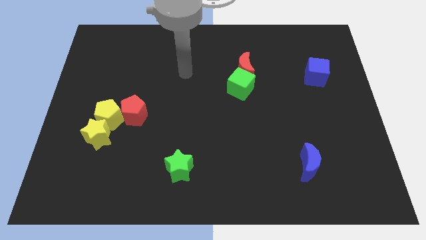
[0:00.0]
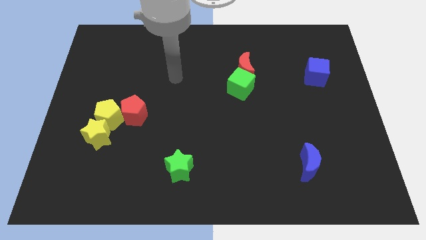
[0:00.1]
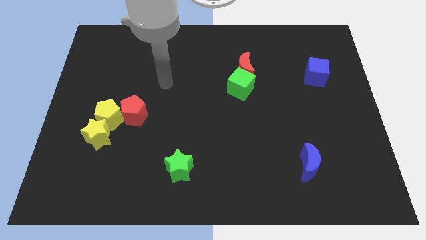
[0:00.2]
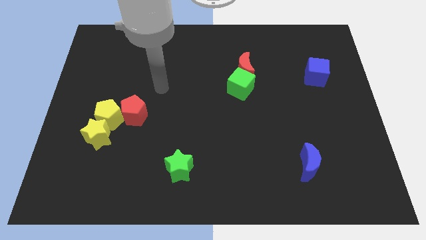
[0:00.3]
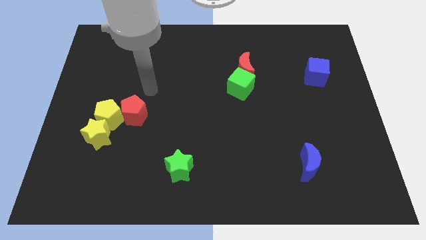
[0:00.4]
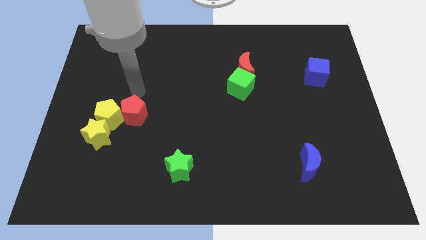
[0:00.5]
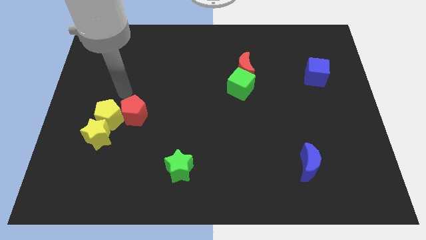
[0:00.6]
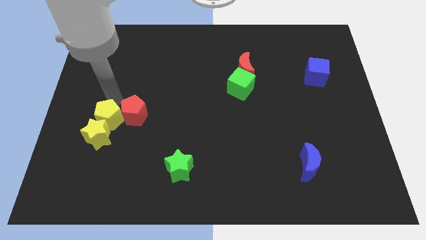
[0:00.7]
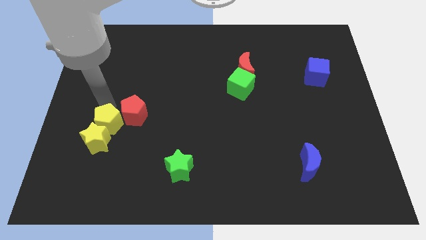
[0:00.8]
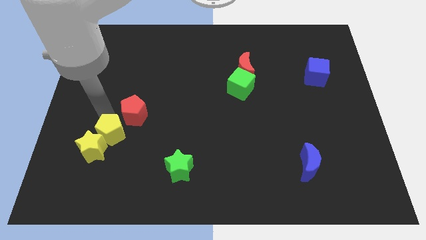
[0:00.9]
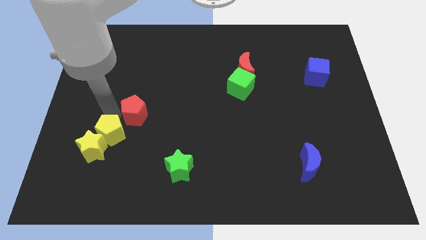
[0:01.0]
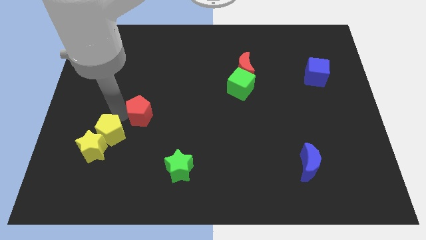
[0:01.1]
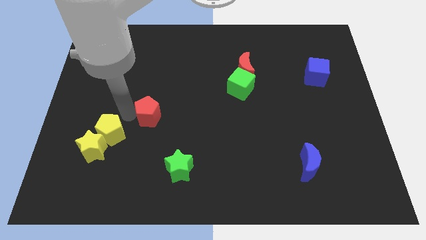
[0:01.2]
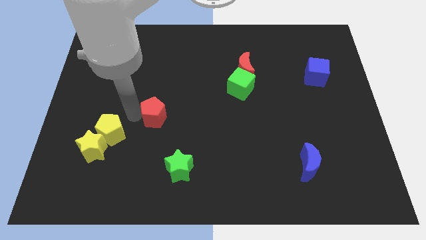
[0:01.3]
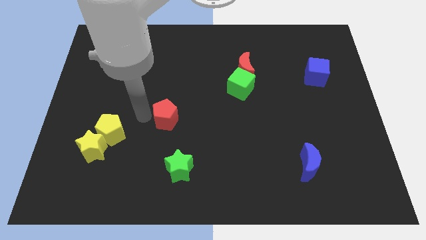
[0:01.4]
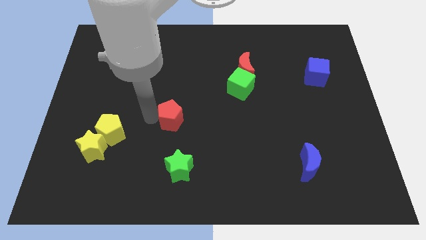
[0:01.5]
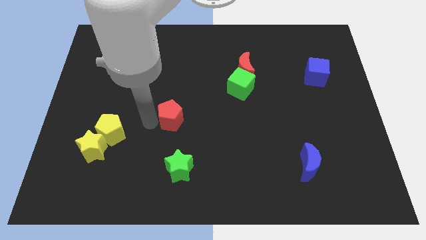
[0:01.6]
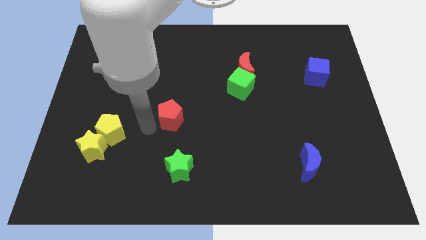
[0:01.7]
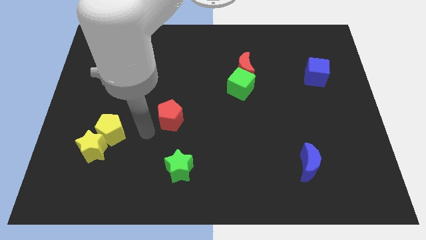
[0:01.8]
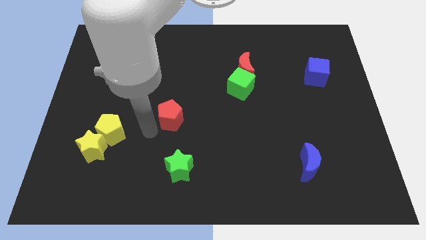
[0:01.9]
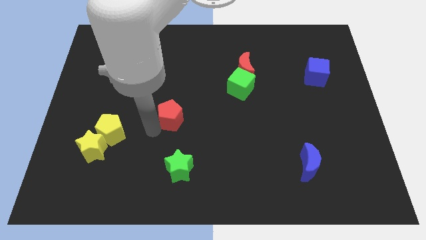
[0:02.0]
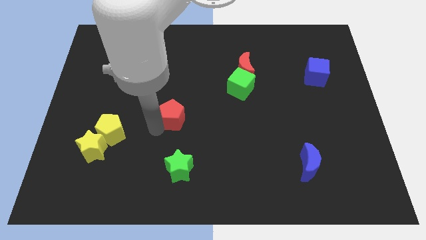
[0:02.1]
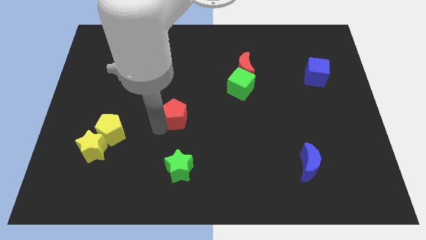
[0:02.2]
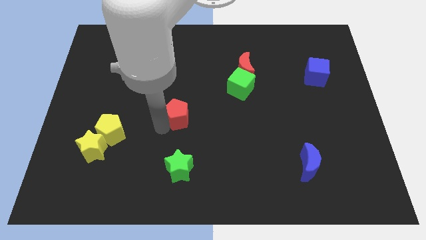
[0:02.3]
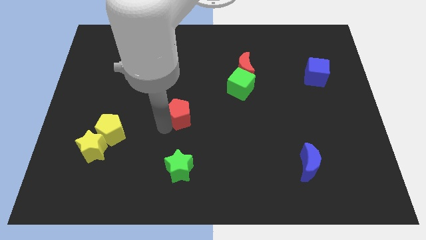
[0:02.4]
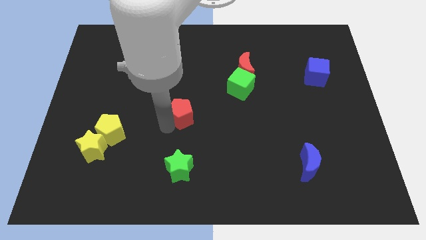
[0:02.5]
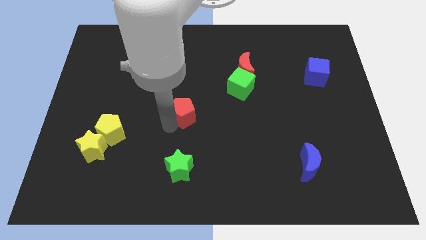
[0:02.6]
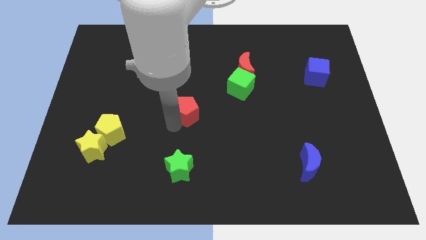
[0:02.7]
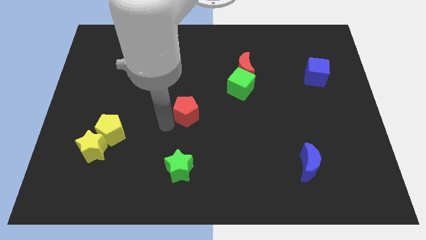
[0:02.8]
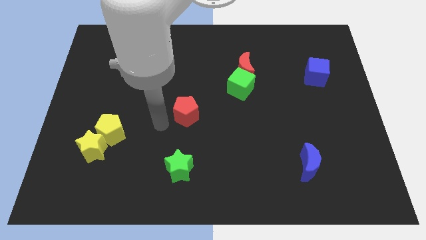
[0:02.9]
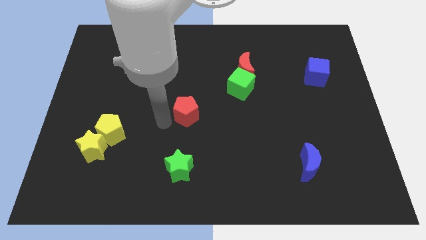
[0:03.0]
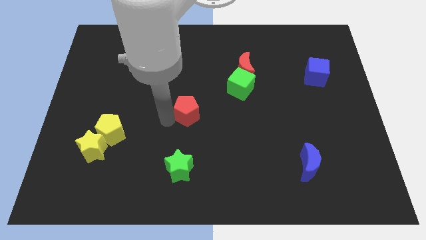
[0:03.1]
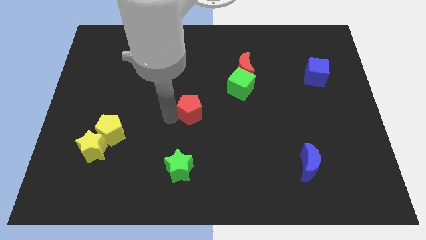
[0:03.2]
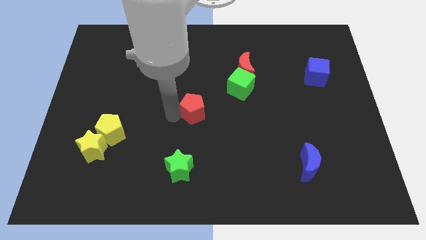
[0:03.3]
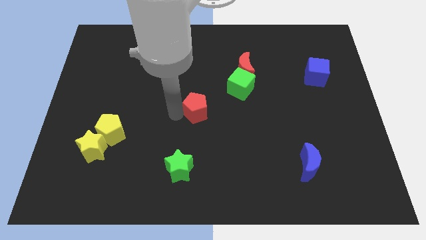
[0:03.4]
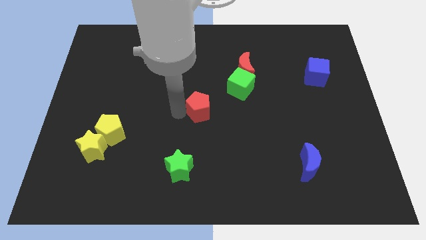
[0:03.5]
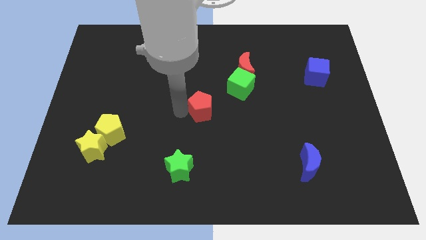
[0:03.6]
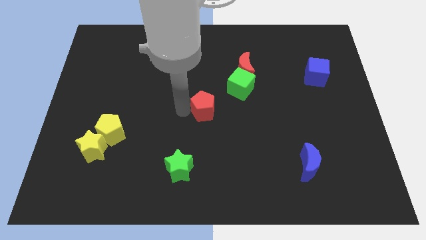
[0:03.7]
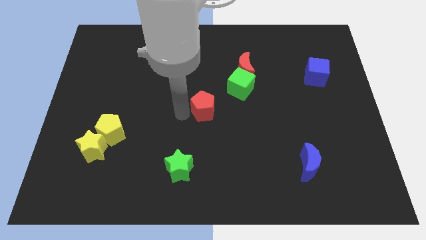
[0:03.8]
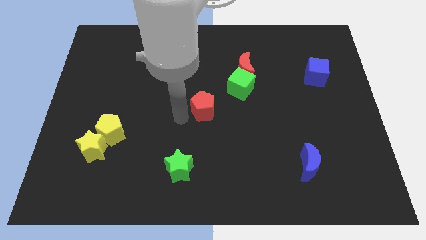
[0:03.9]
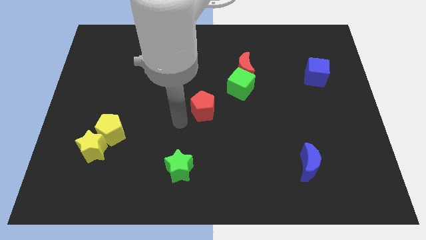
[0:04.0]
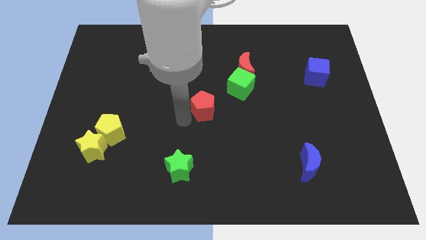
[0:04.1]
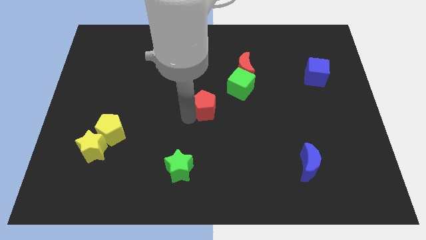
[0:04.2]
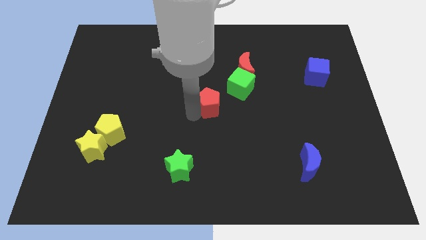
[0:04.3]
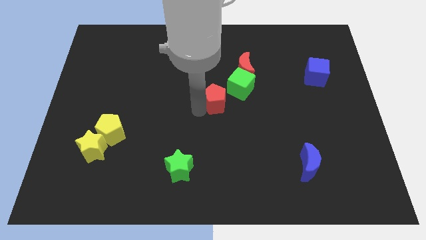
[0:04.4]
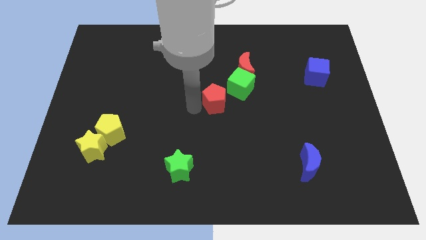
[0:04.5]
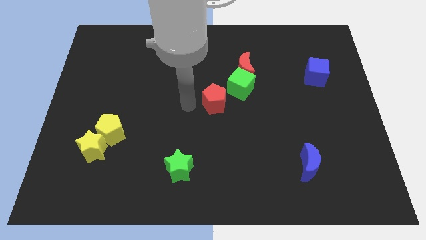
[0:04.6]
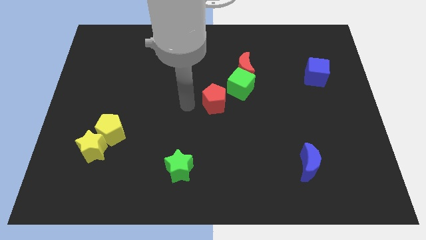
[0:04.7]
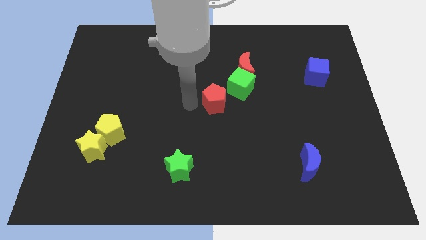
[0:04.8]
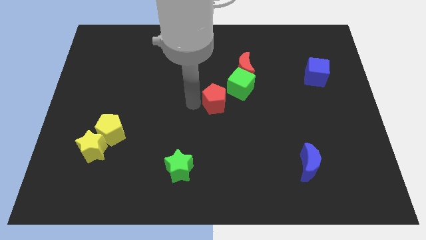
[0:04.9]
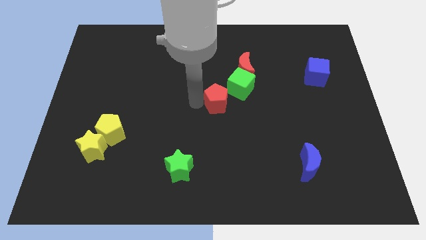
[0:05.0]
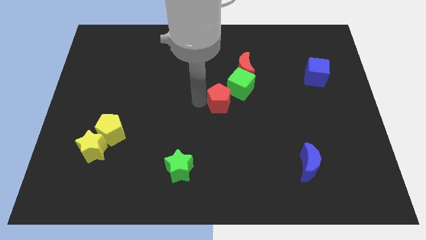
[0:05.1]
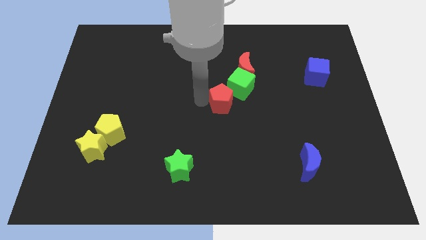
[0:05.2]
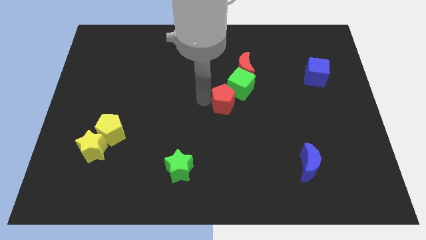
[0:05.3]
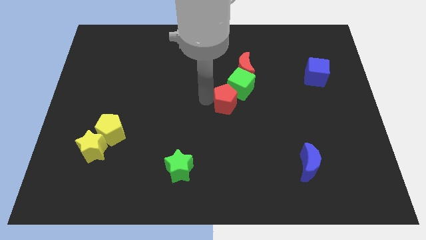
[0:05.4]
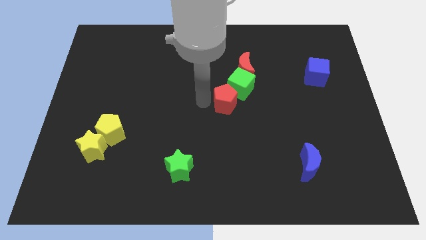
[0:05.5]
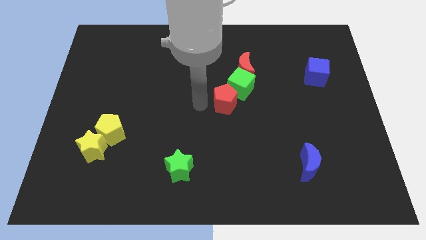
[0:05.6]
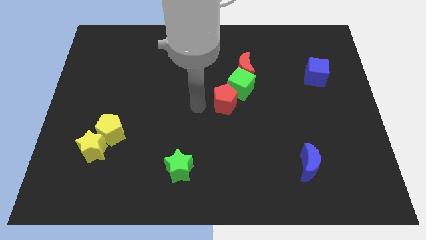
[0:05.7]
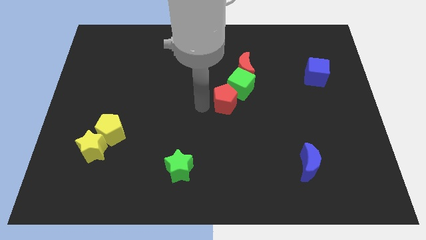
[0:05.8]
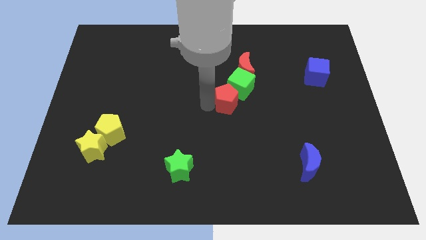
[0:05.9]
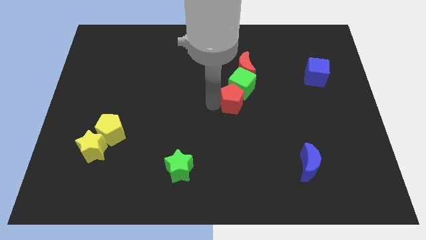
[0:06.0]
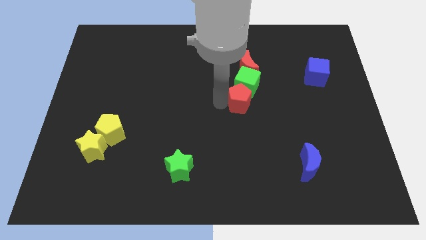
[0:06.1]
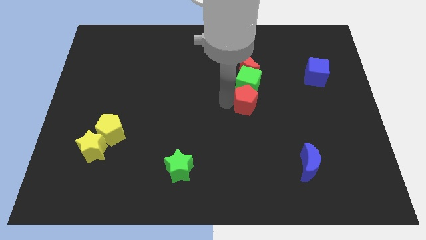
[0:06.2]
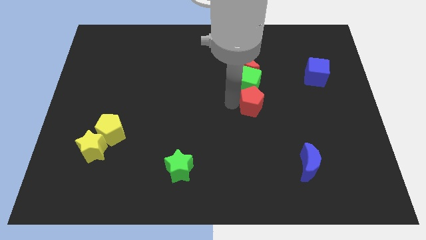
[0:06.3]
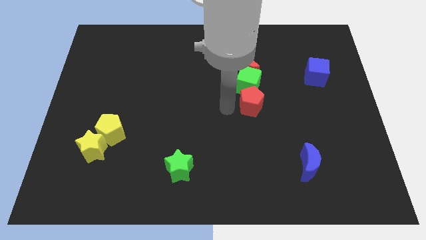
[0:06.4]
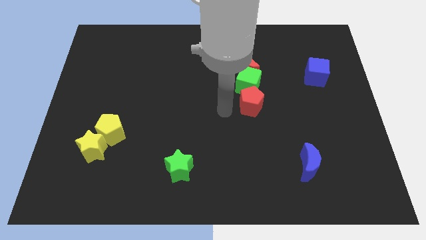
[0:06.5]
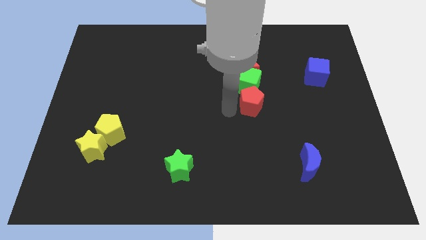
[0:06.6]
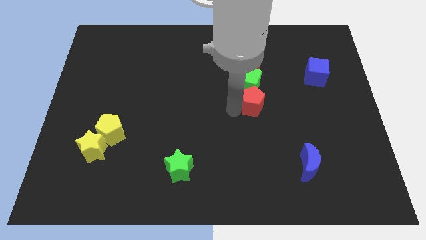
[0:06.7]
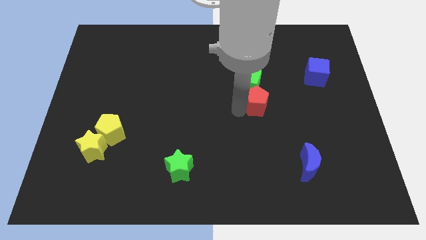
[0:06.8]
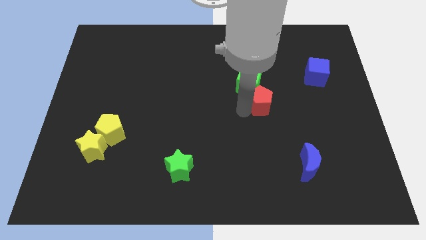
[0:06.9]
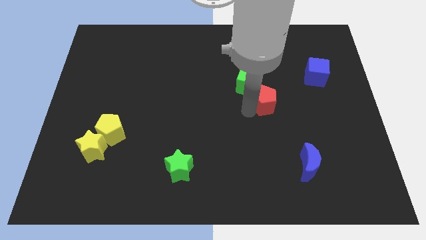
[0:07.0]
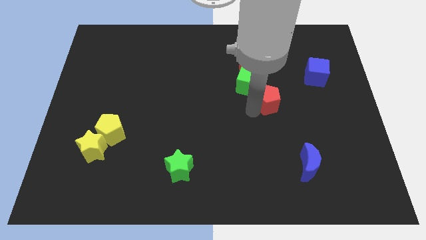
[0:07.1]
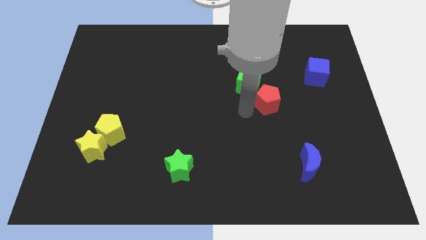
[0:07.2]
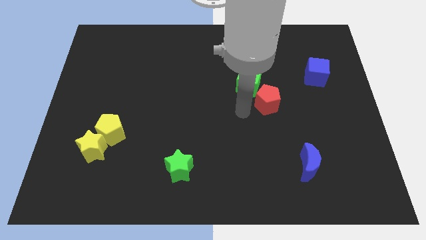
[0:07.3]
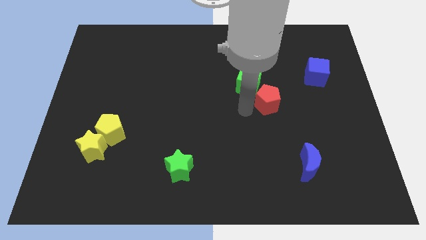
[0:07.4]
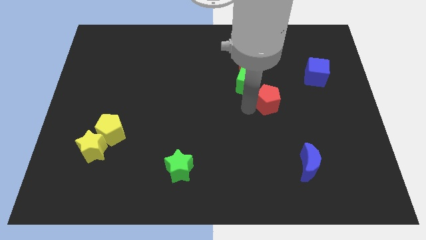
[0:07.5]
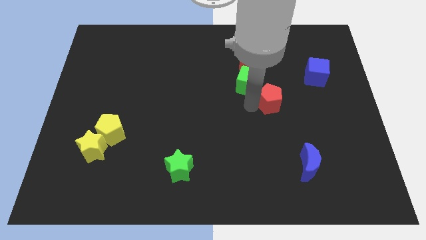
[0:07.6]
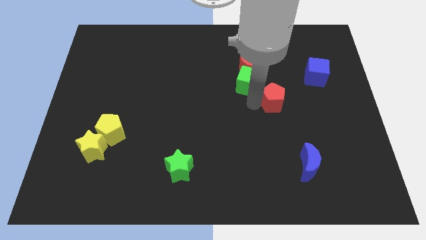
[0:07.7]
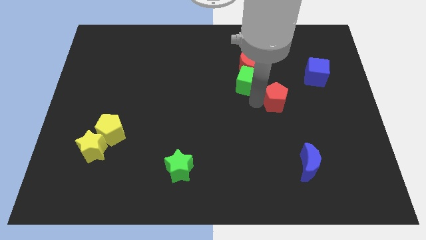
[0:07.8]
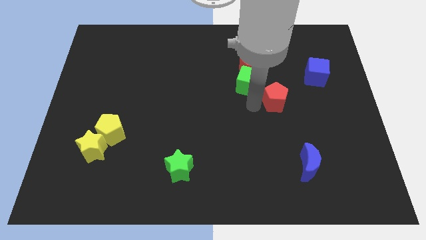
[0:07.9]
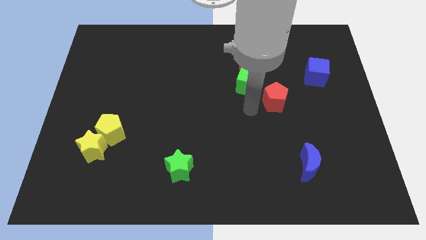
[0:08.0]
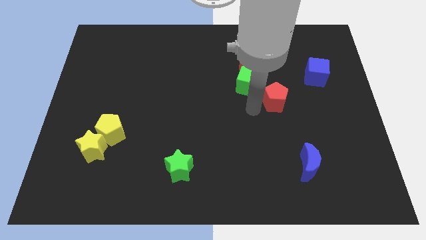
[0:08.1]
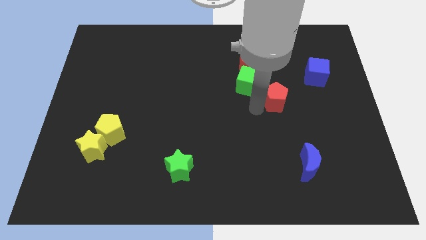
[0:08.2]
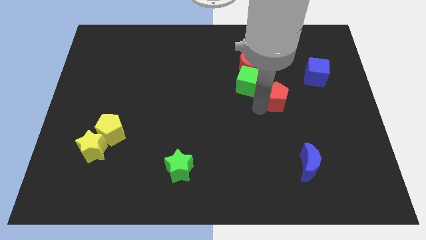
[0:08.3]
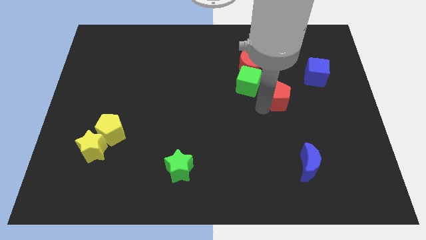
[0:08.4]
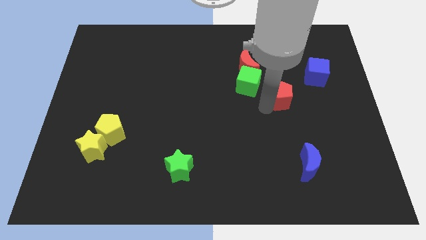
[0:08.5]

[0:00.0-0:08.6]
put the red pentagon to the bottom left side of the blue cube
